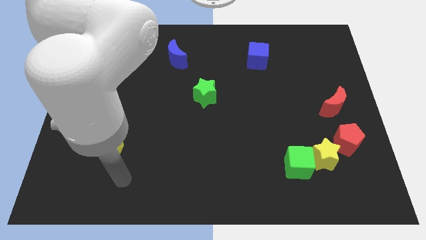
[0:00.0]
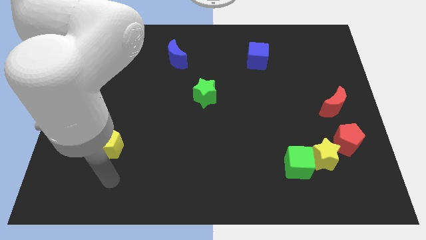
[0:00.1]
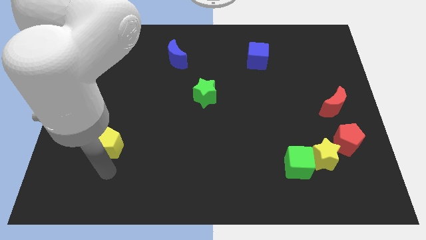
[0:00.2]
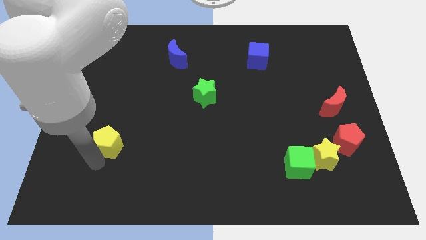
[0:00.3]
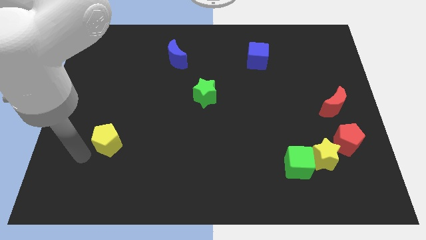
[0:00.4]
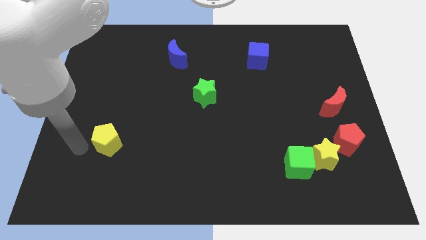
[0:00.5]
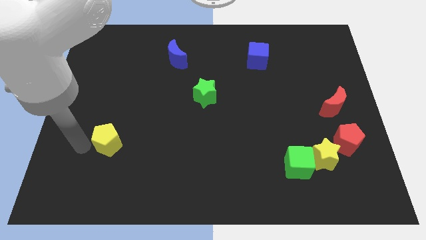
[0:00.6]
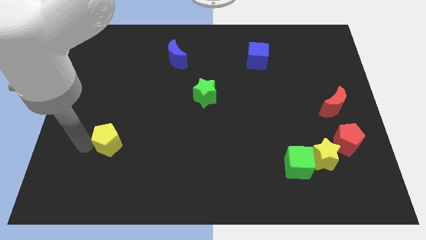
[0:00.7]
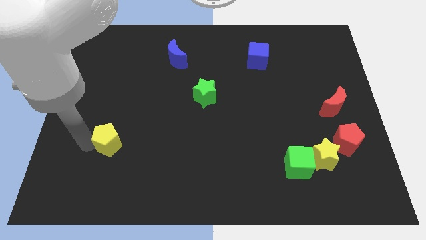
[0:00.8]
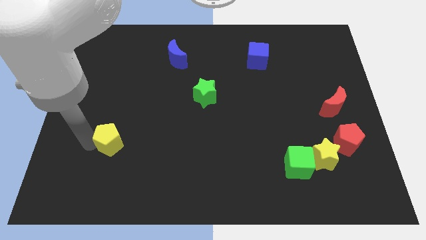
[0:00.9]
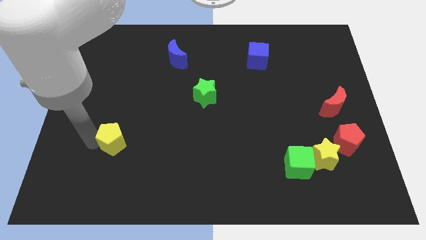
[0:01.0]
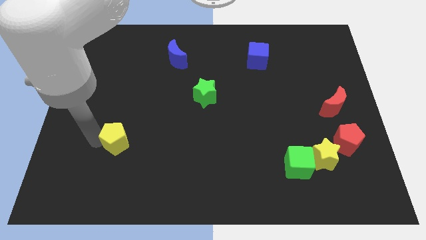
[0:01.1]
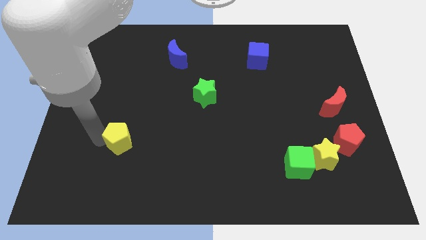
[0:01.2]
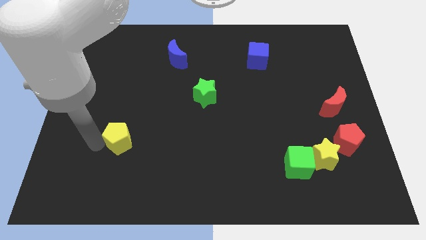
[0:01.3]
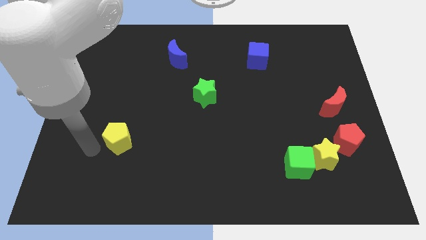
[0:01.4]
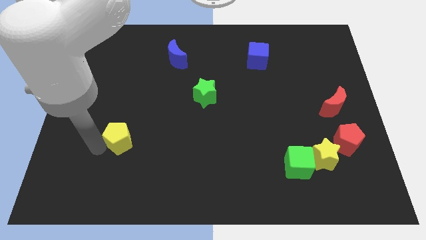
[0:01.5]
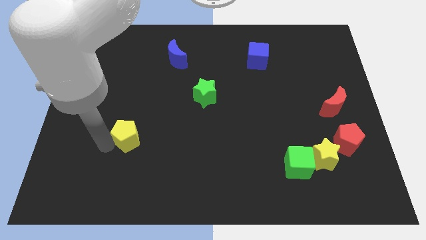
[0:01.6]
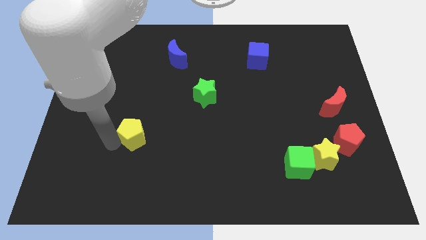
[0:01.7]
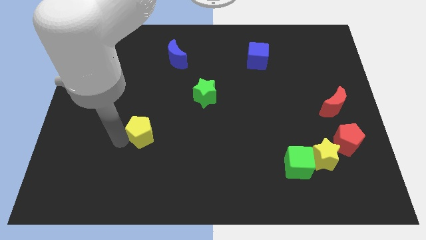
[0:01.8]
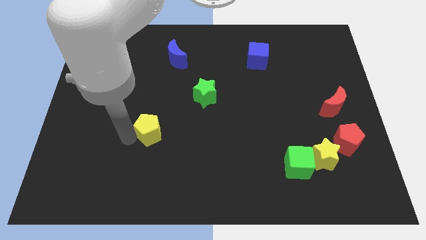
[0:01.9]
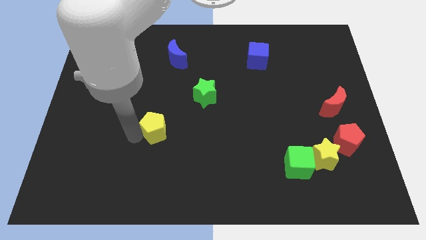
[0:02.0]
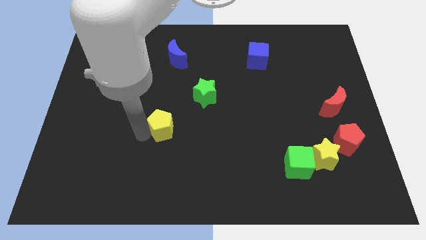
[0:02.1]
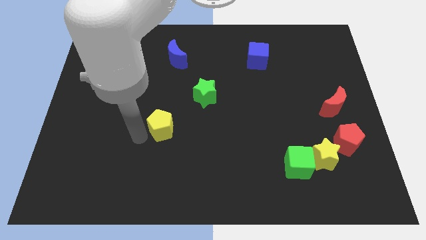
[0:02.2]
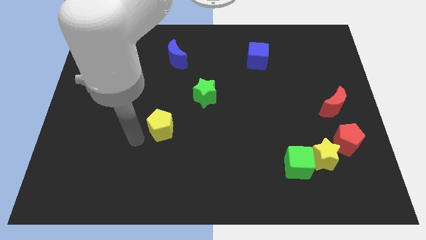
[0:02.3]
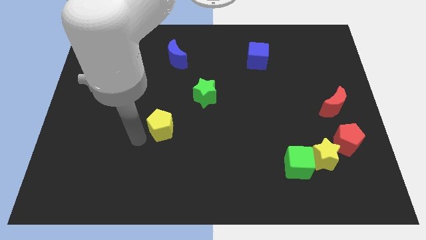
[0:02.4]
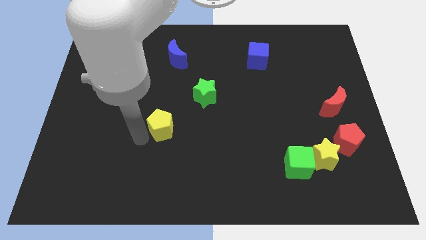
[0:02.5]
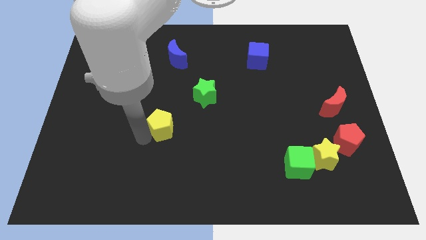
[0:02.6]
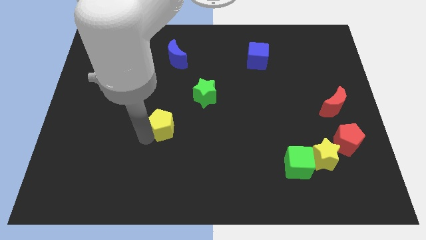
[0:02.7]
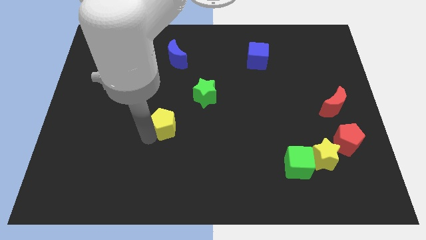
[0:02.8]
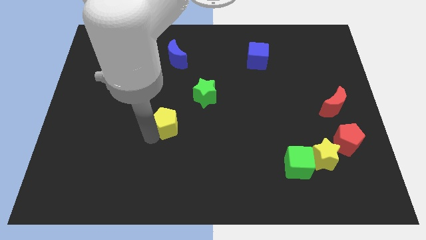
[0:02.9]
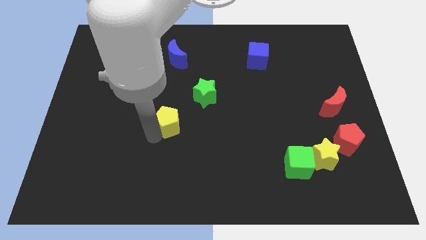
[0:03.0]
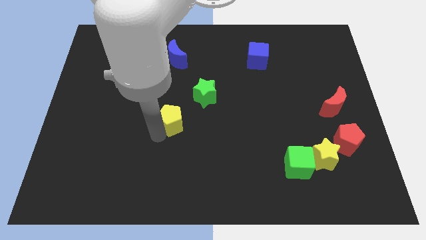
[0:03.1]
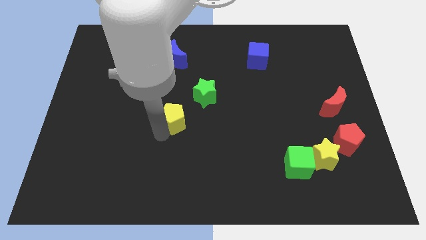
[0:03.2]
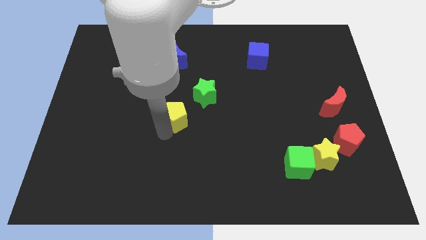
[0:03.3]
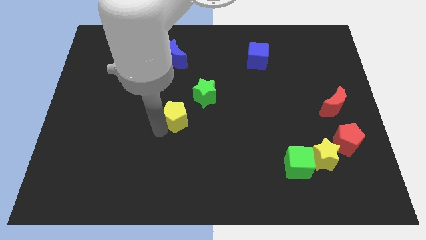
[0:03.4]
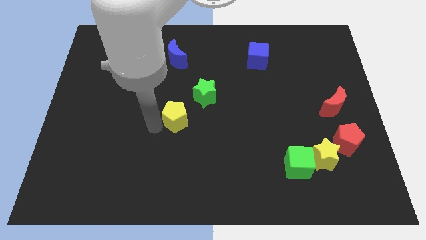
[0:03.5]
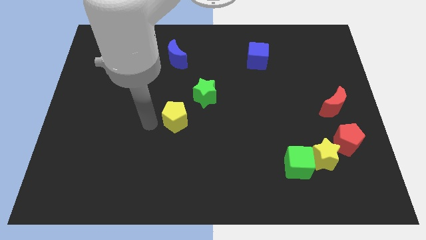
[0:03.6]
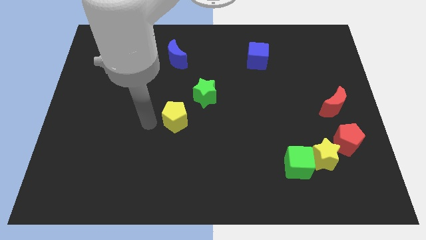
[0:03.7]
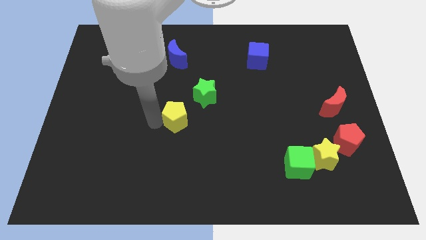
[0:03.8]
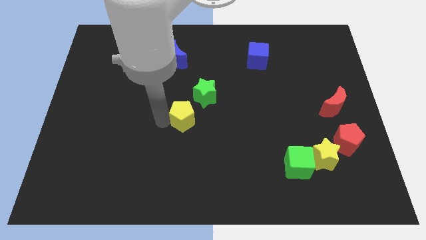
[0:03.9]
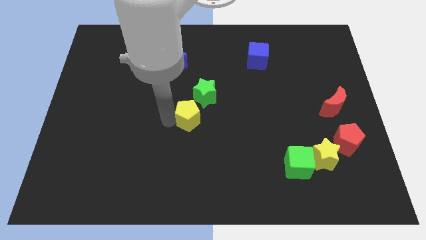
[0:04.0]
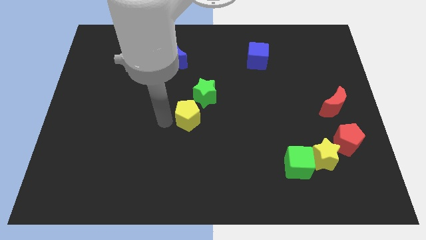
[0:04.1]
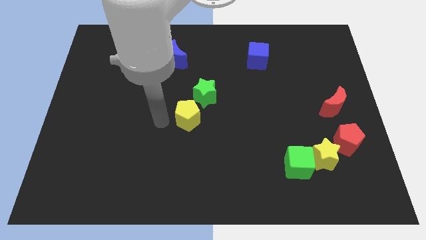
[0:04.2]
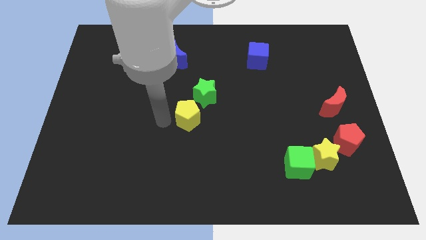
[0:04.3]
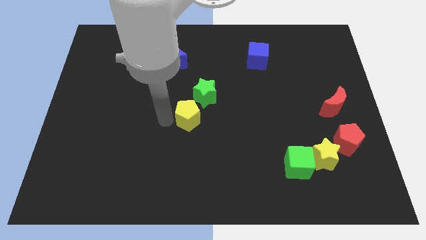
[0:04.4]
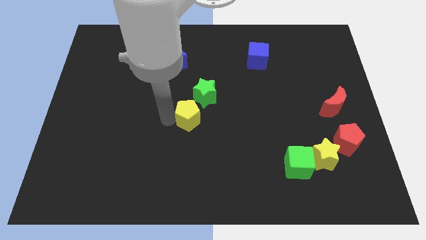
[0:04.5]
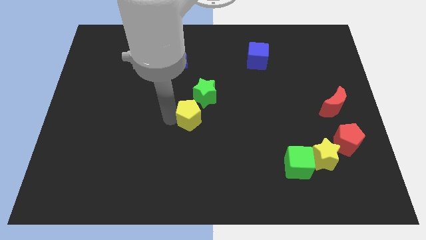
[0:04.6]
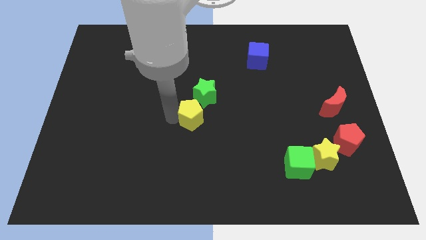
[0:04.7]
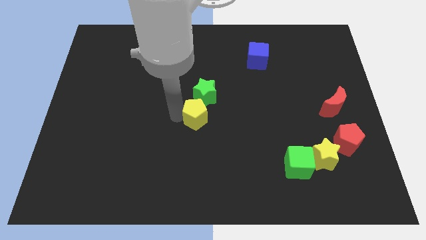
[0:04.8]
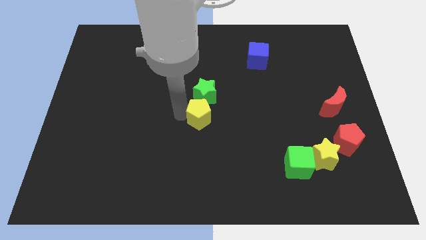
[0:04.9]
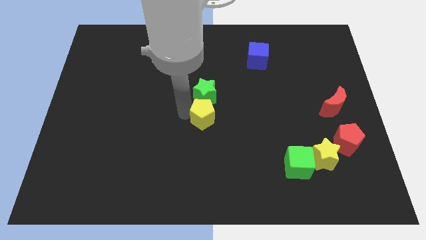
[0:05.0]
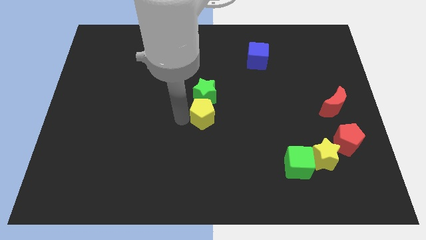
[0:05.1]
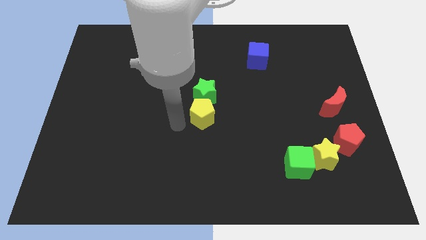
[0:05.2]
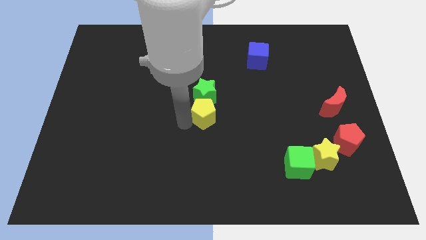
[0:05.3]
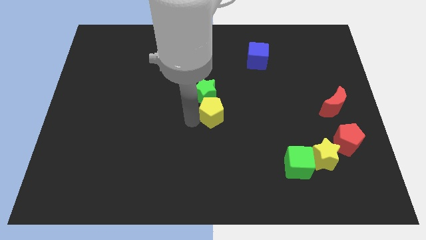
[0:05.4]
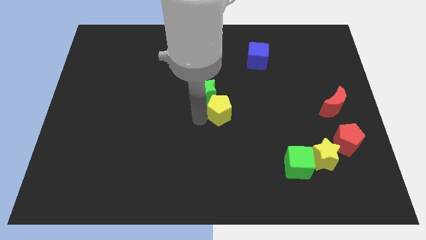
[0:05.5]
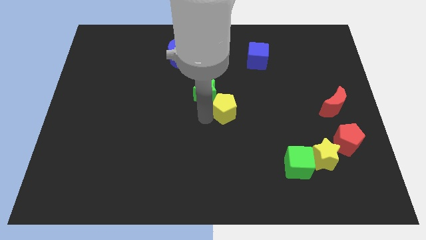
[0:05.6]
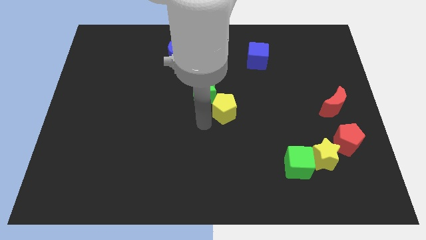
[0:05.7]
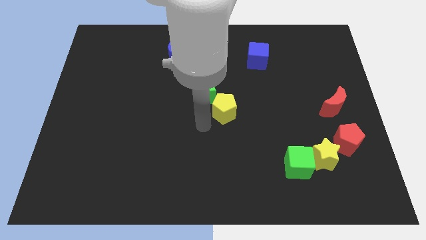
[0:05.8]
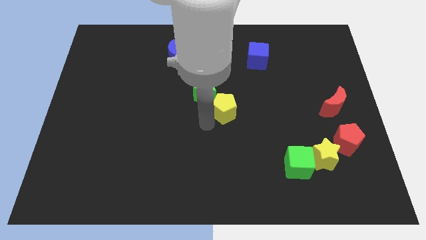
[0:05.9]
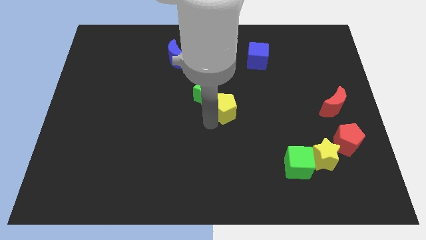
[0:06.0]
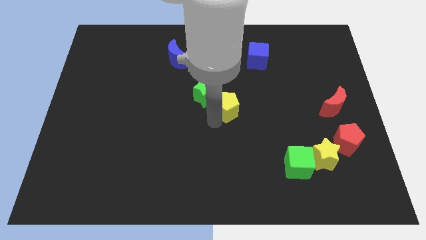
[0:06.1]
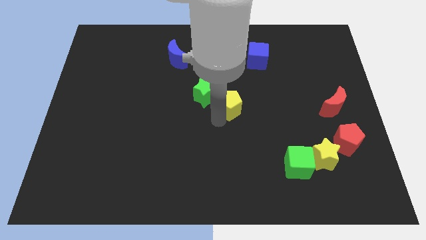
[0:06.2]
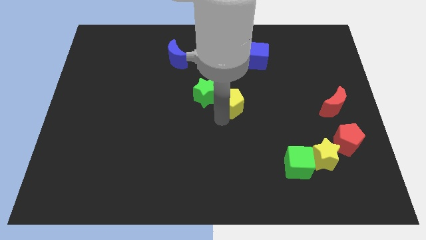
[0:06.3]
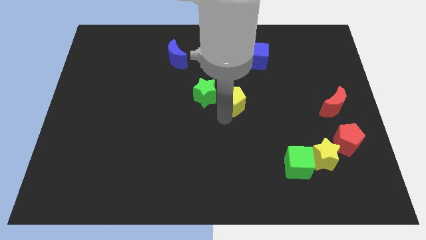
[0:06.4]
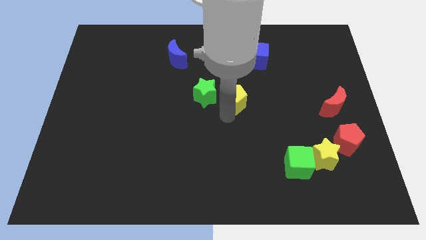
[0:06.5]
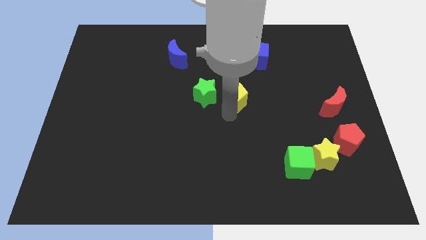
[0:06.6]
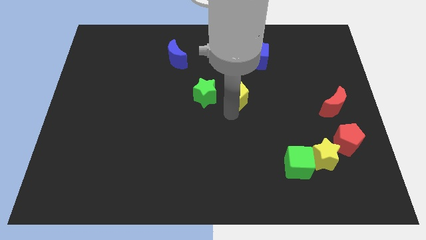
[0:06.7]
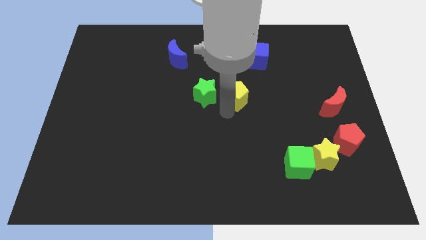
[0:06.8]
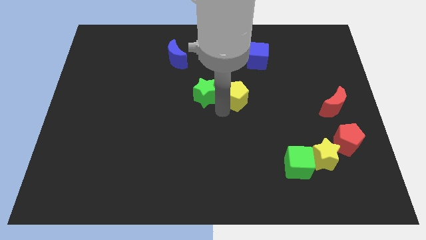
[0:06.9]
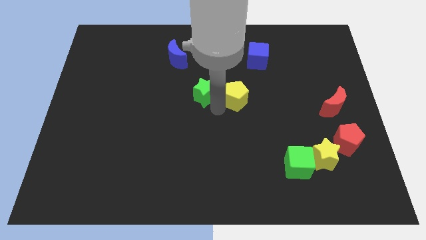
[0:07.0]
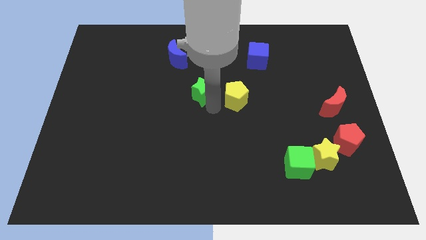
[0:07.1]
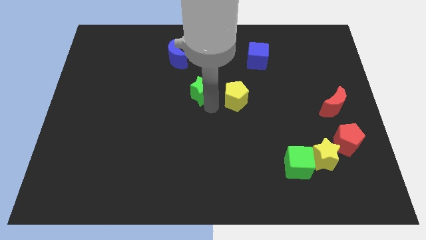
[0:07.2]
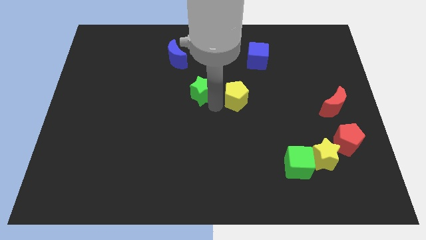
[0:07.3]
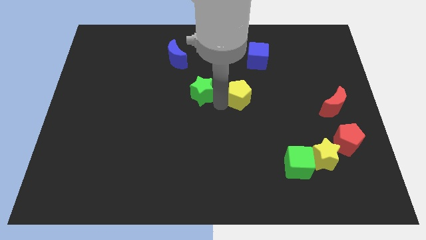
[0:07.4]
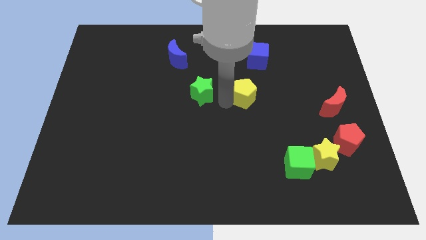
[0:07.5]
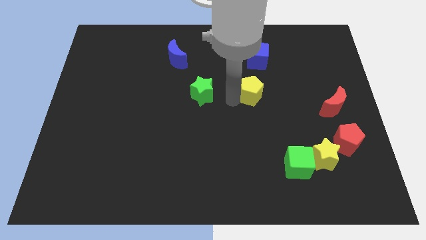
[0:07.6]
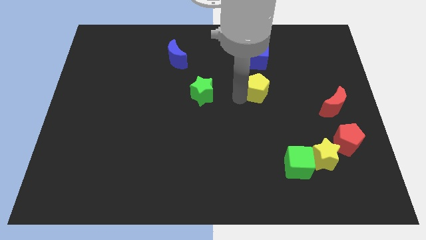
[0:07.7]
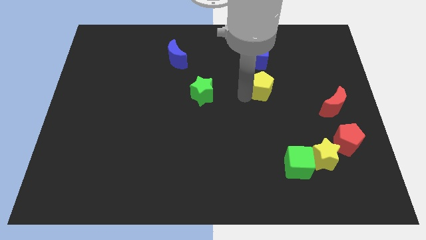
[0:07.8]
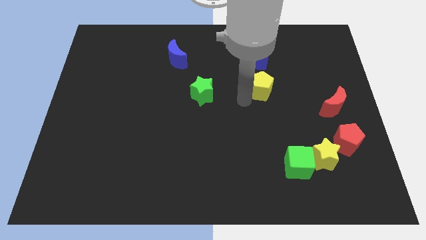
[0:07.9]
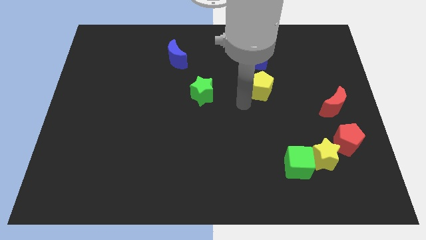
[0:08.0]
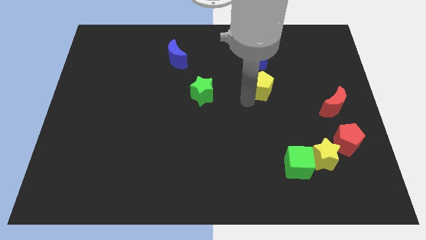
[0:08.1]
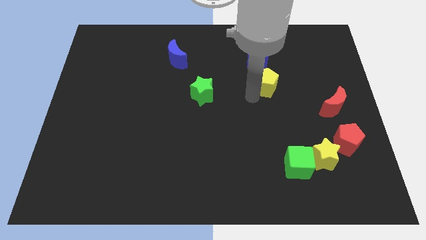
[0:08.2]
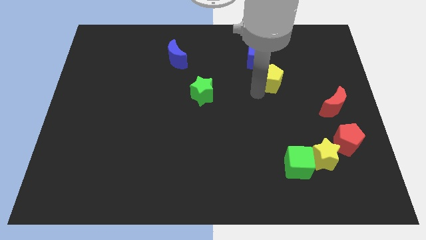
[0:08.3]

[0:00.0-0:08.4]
move the yellow pentagon to the bottom right of the blue cube

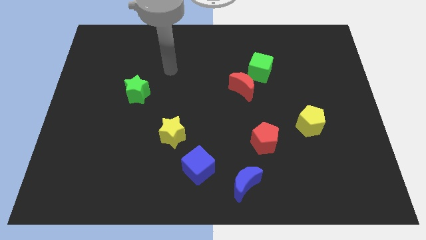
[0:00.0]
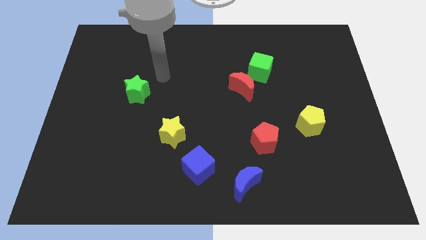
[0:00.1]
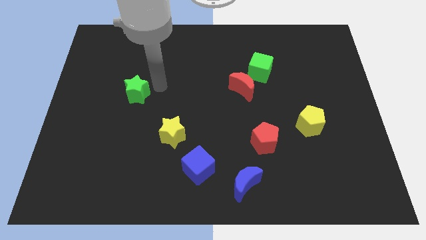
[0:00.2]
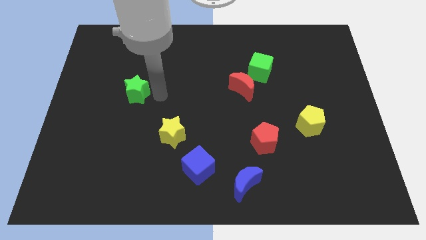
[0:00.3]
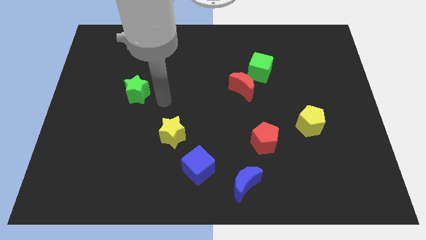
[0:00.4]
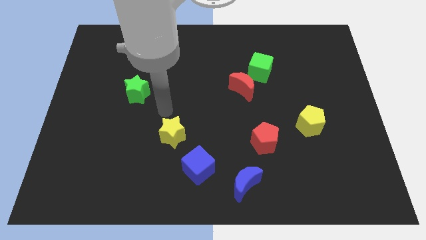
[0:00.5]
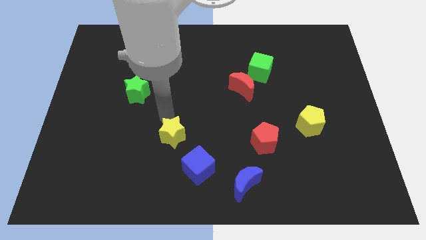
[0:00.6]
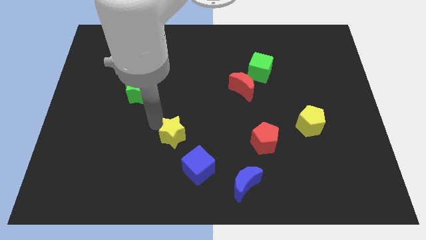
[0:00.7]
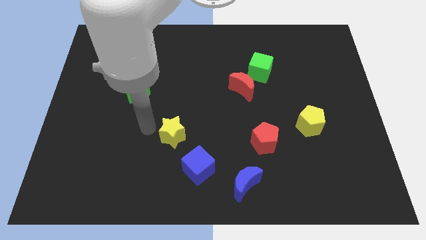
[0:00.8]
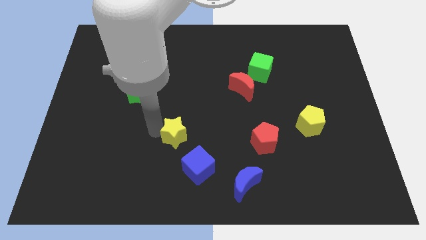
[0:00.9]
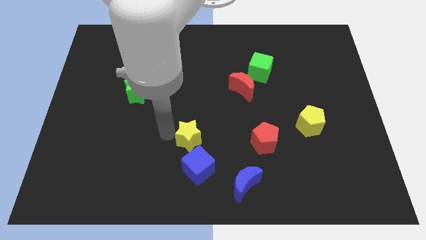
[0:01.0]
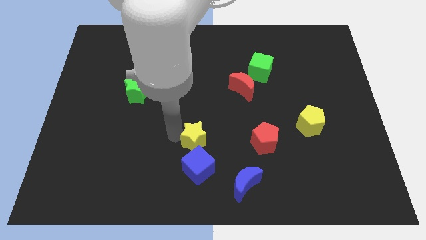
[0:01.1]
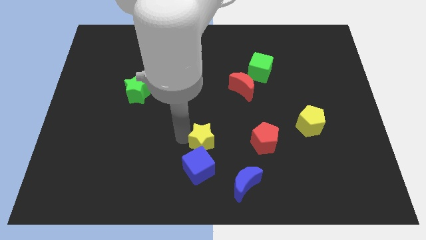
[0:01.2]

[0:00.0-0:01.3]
push the yellow star to the top right side of the blue cube
